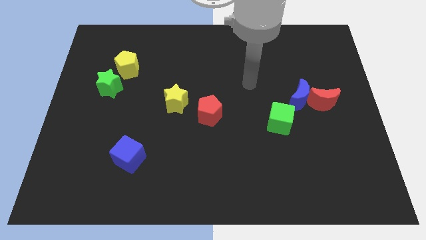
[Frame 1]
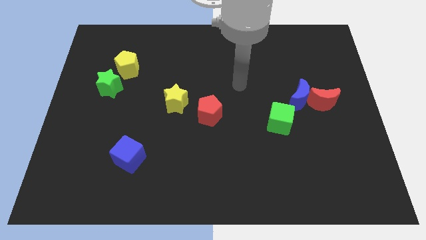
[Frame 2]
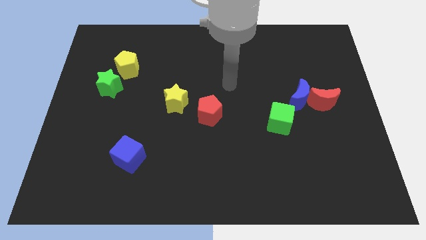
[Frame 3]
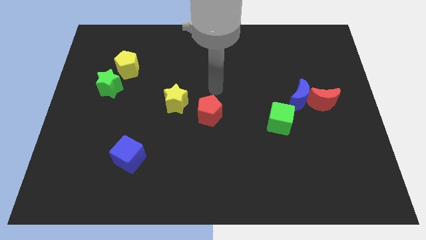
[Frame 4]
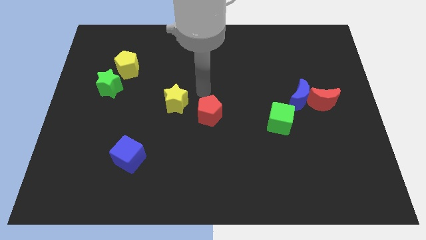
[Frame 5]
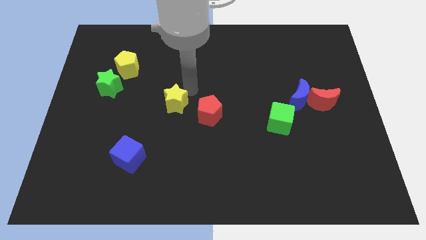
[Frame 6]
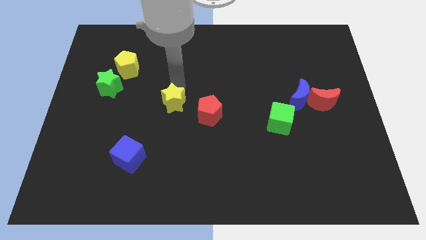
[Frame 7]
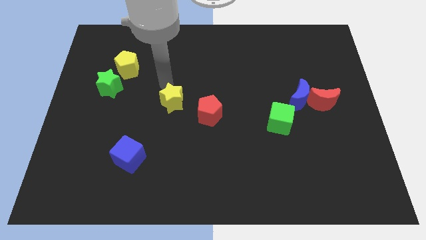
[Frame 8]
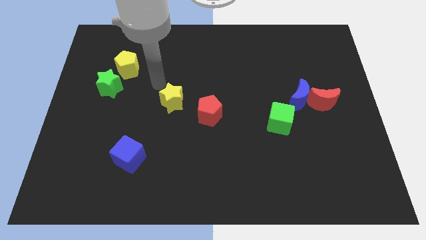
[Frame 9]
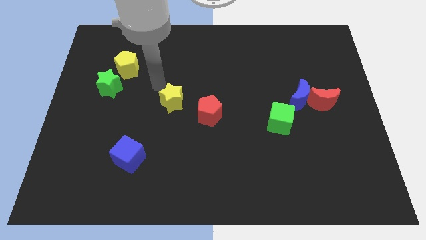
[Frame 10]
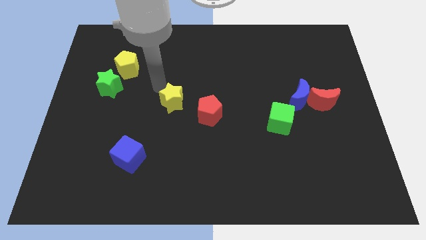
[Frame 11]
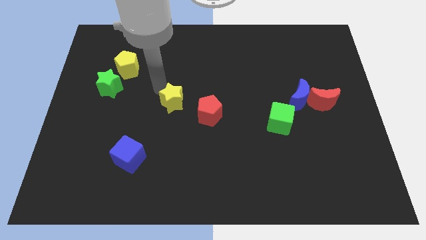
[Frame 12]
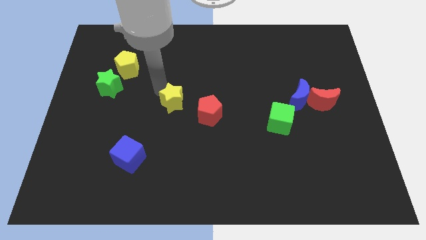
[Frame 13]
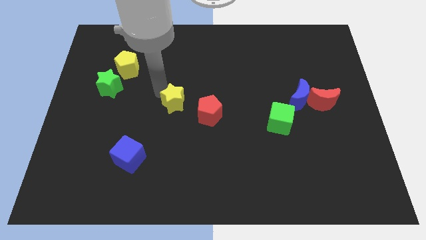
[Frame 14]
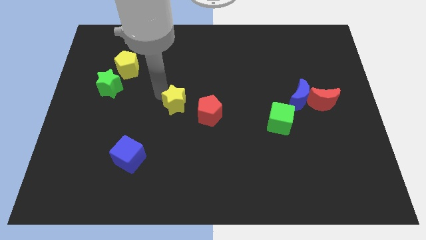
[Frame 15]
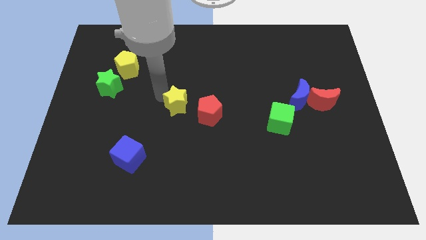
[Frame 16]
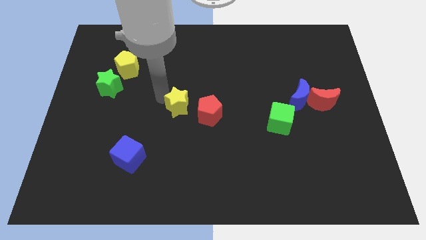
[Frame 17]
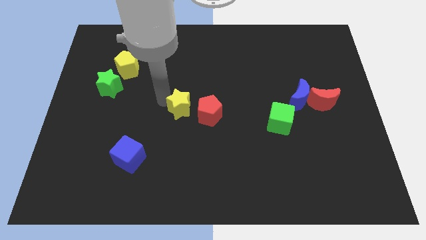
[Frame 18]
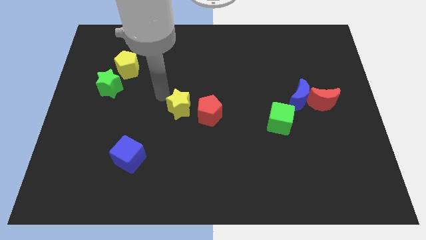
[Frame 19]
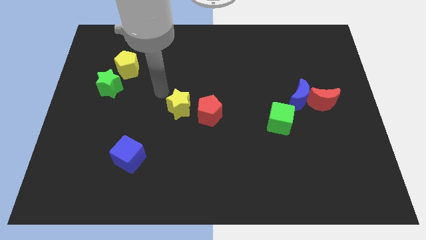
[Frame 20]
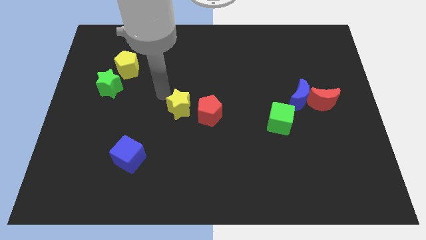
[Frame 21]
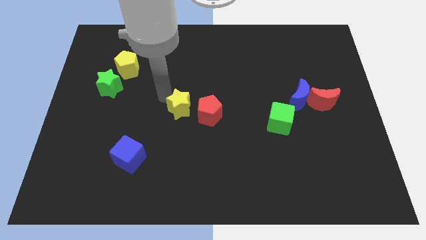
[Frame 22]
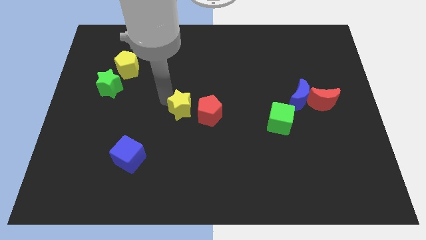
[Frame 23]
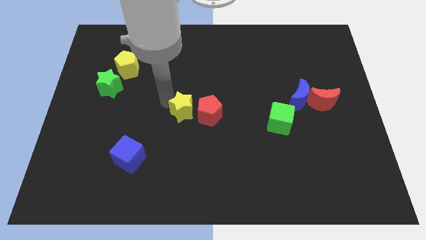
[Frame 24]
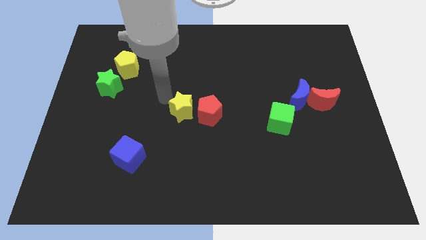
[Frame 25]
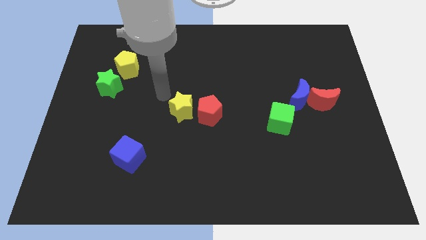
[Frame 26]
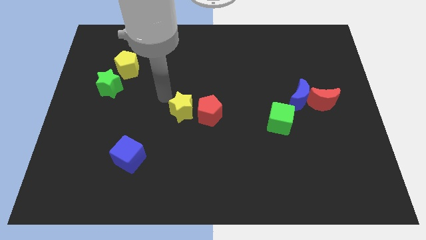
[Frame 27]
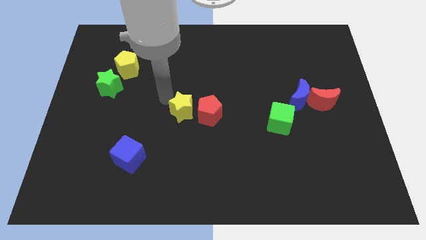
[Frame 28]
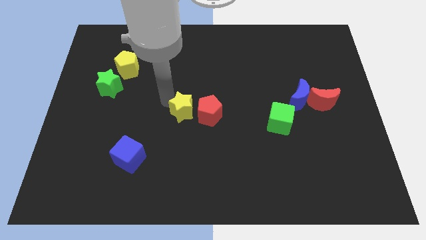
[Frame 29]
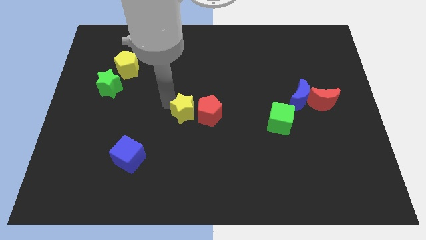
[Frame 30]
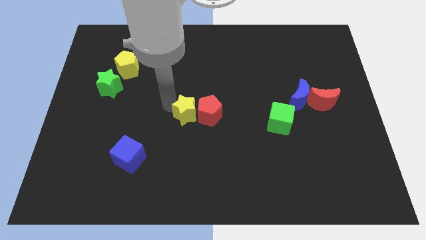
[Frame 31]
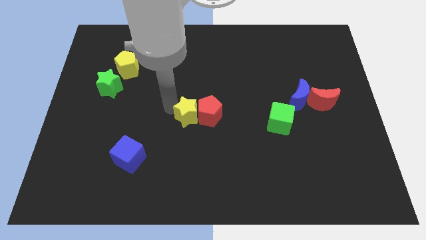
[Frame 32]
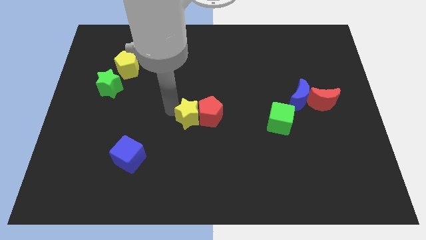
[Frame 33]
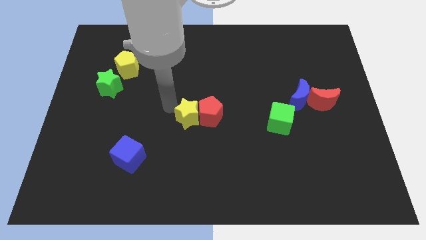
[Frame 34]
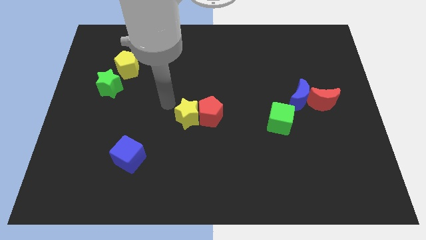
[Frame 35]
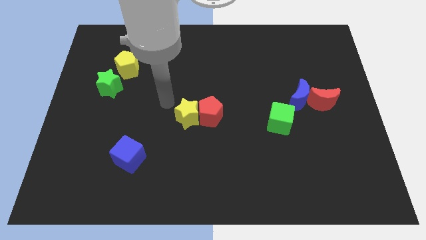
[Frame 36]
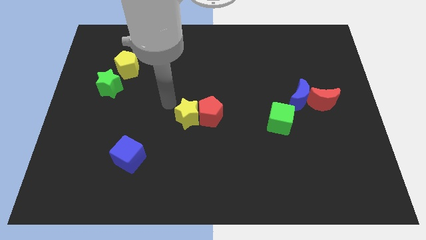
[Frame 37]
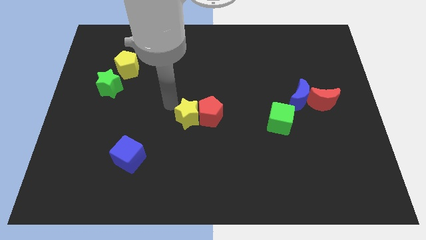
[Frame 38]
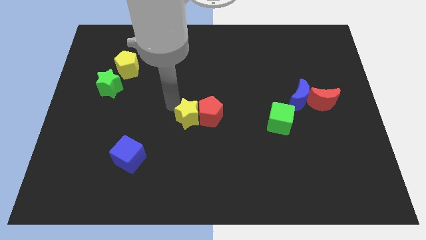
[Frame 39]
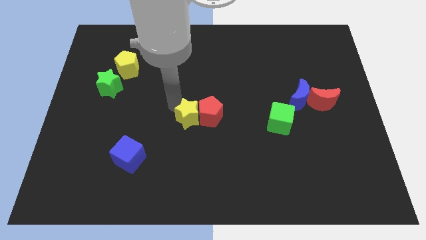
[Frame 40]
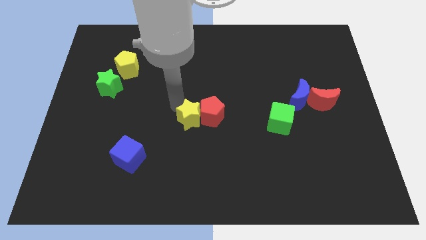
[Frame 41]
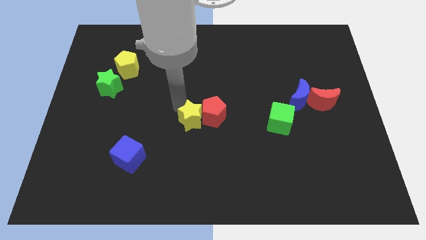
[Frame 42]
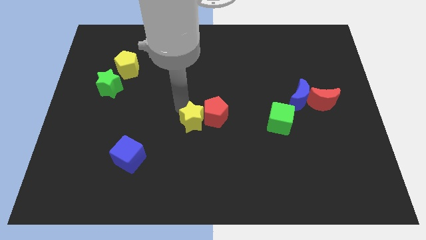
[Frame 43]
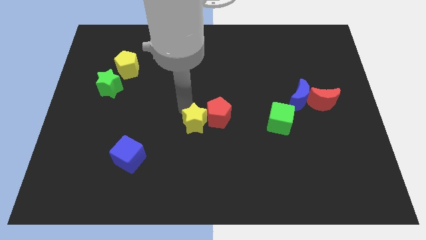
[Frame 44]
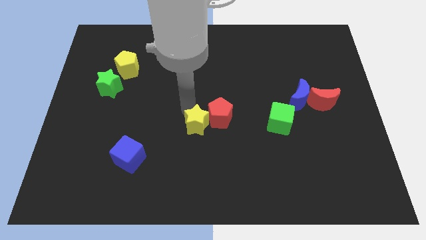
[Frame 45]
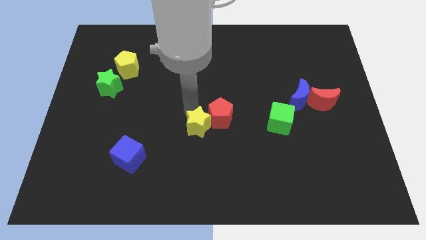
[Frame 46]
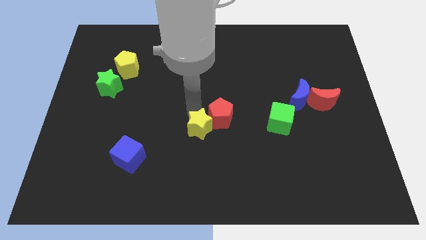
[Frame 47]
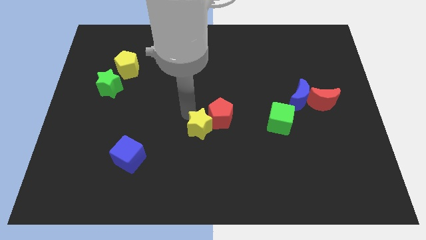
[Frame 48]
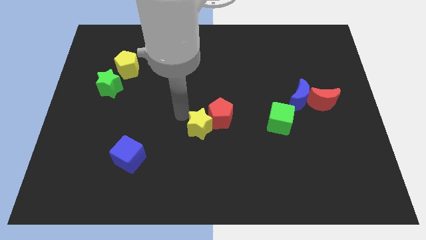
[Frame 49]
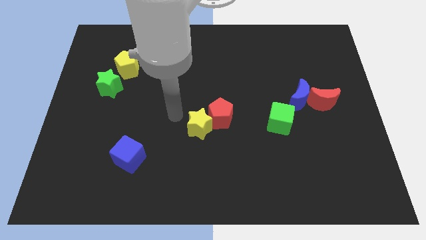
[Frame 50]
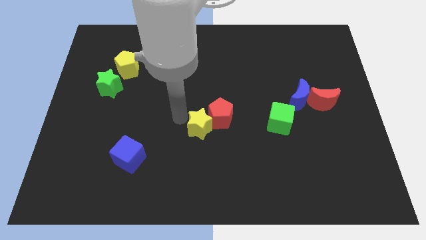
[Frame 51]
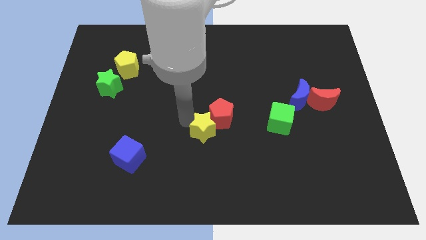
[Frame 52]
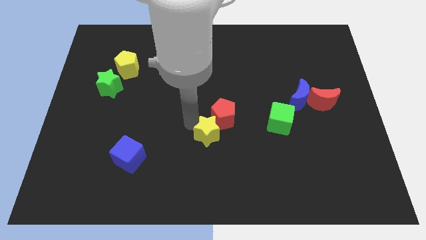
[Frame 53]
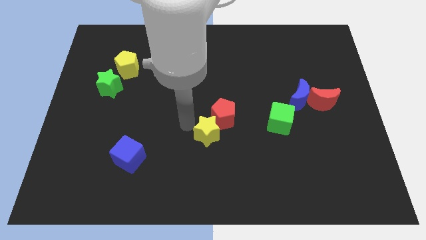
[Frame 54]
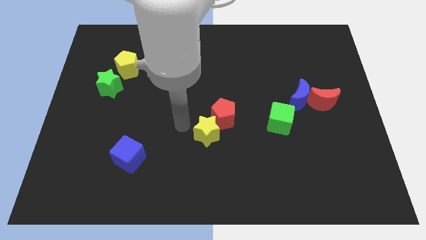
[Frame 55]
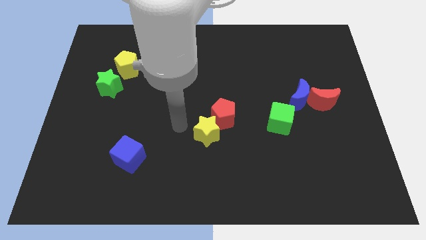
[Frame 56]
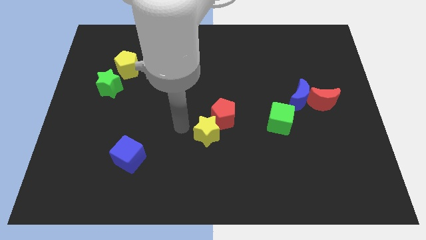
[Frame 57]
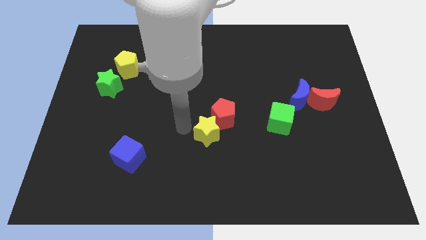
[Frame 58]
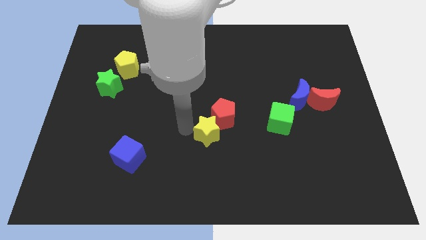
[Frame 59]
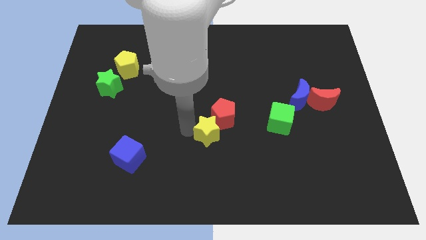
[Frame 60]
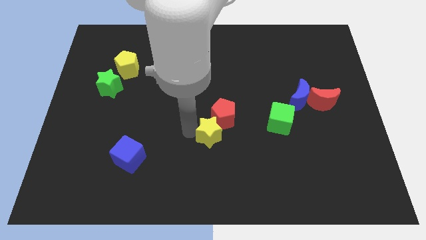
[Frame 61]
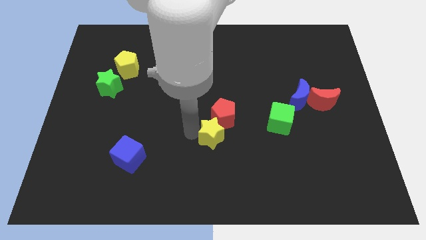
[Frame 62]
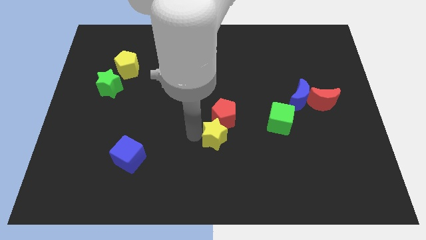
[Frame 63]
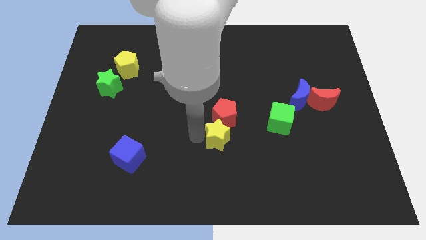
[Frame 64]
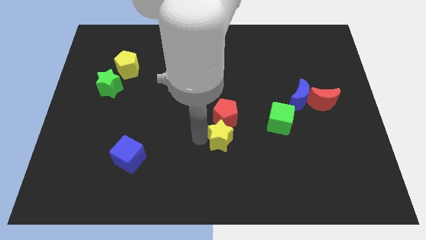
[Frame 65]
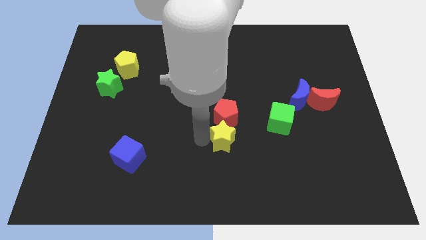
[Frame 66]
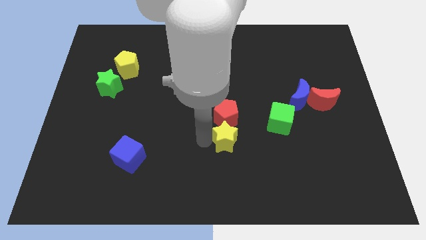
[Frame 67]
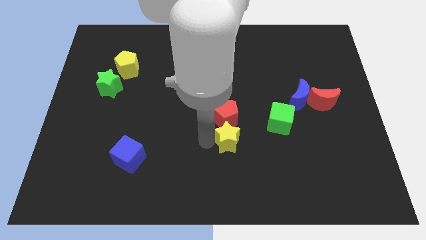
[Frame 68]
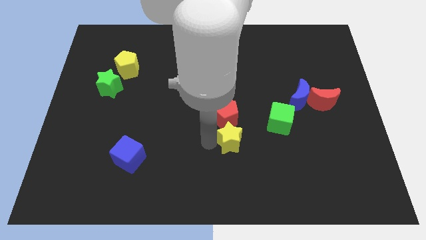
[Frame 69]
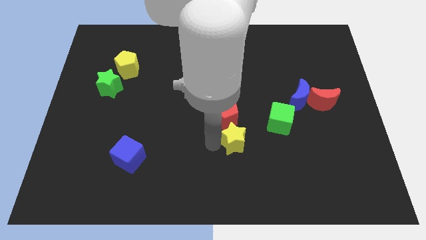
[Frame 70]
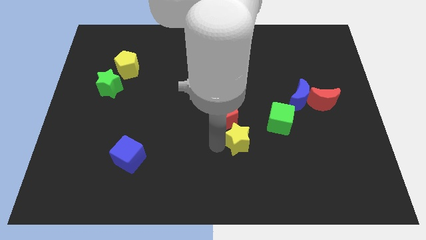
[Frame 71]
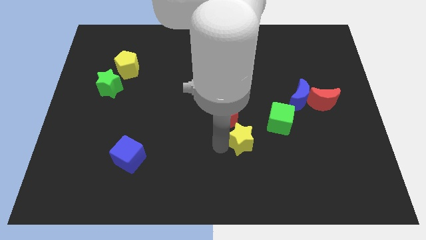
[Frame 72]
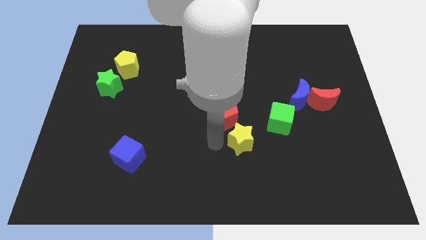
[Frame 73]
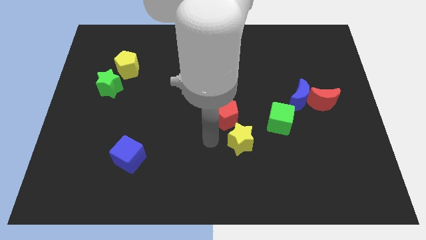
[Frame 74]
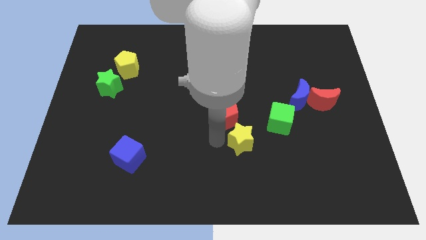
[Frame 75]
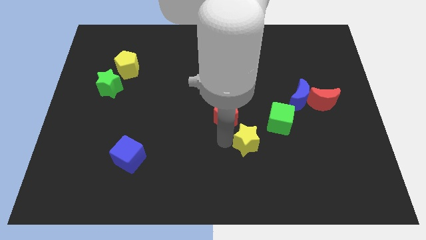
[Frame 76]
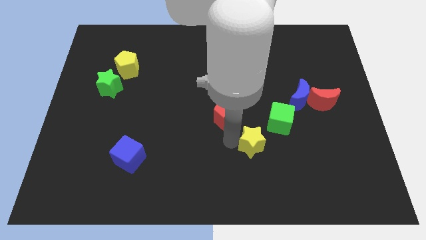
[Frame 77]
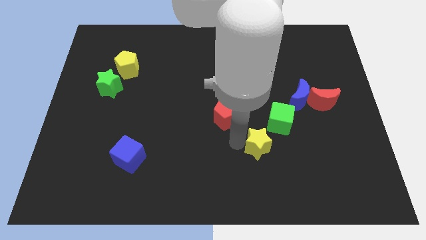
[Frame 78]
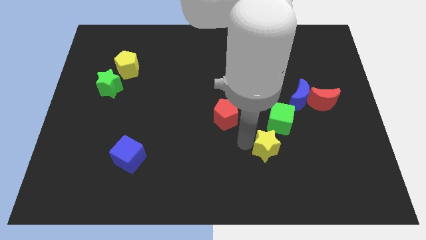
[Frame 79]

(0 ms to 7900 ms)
put the yellow star to the bottom of the green cube
